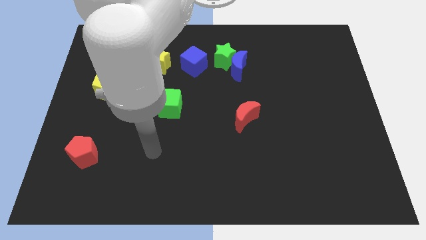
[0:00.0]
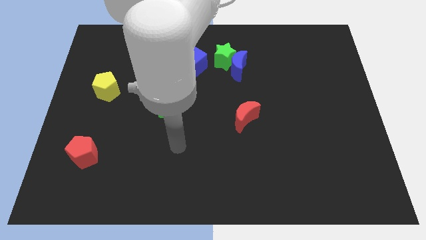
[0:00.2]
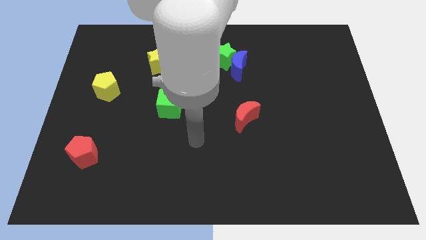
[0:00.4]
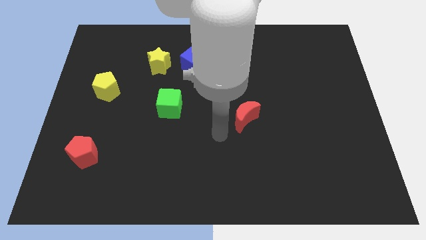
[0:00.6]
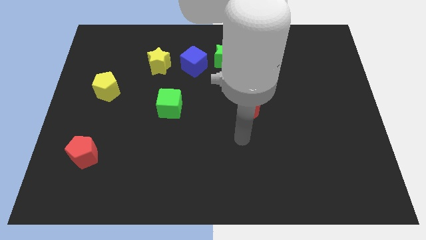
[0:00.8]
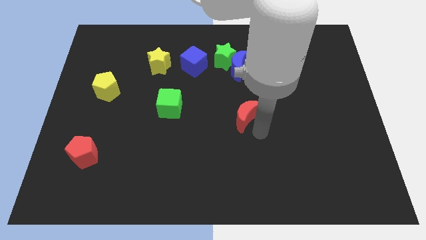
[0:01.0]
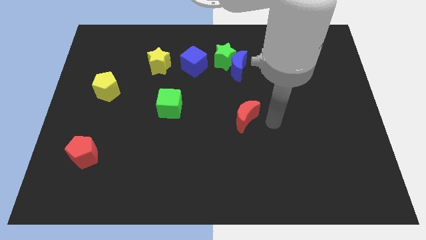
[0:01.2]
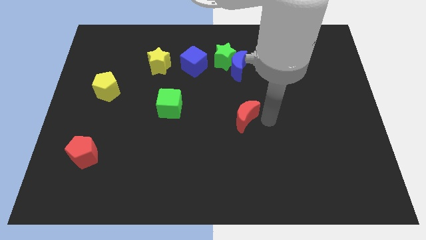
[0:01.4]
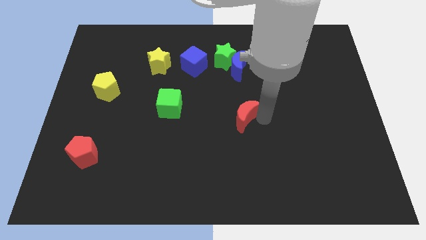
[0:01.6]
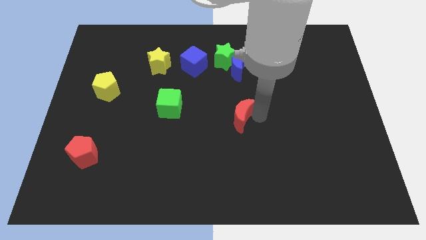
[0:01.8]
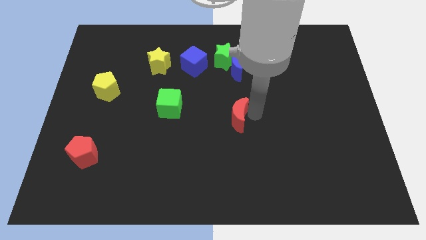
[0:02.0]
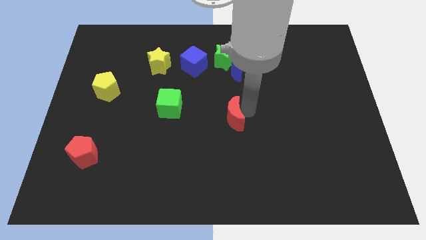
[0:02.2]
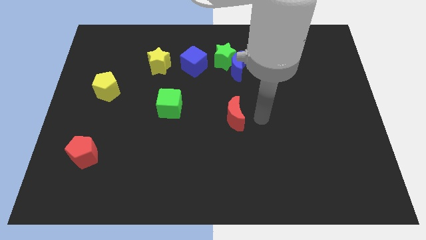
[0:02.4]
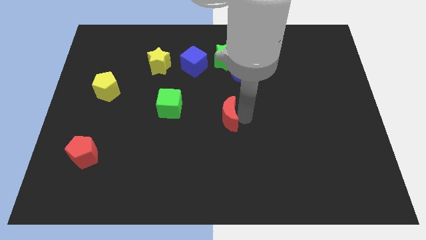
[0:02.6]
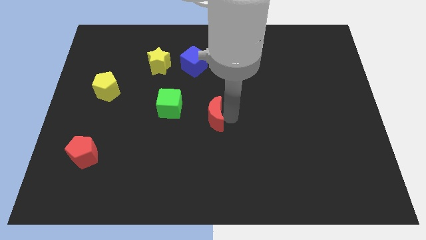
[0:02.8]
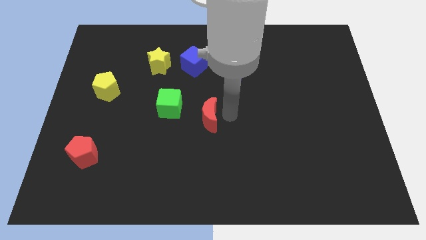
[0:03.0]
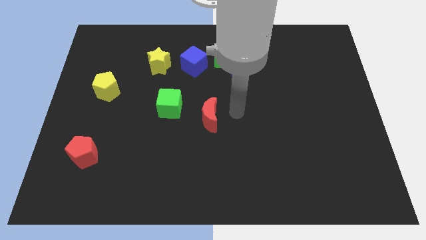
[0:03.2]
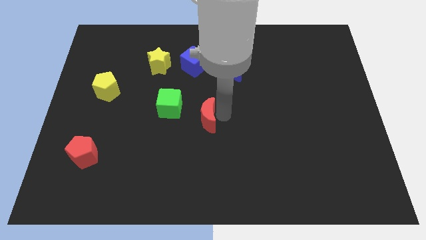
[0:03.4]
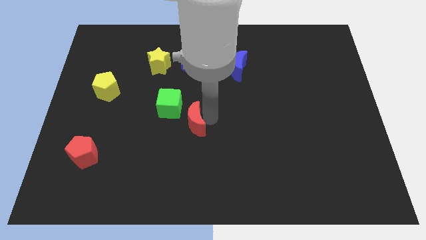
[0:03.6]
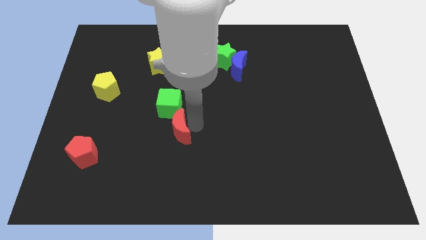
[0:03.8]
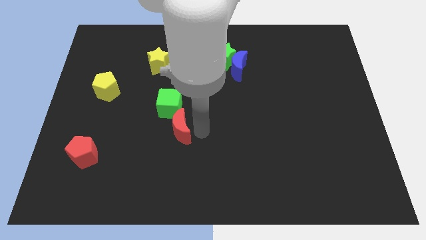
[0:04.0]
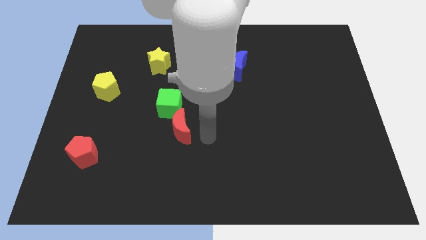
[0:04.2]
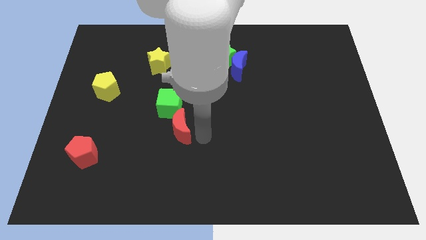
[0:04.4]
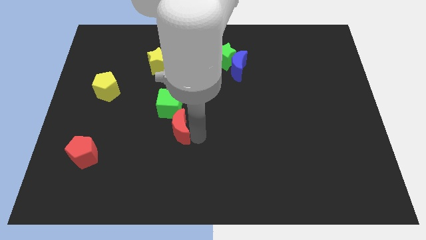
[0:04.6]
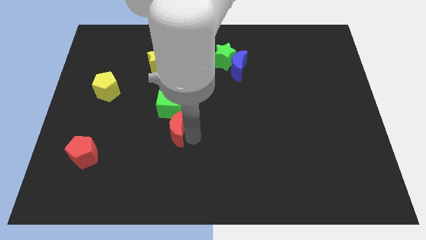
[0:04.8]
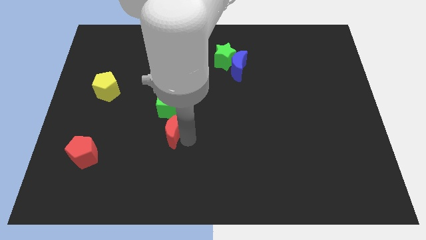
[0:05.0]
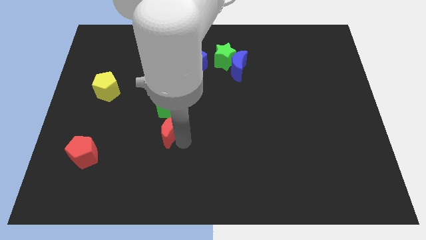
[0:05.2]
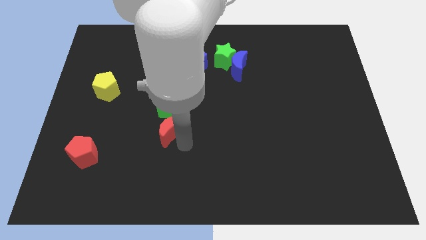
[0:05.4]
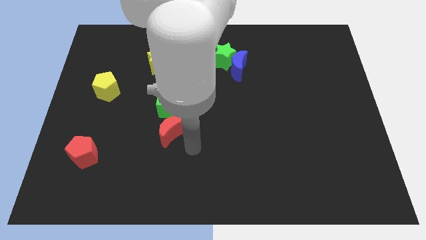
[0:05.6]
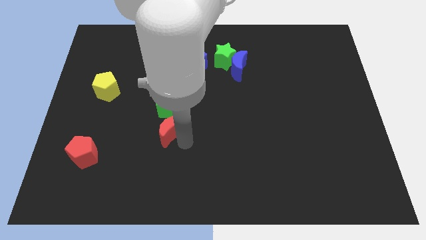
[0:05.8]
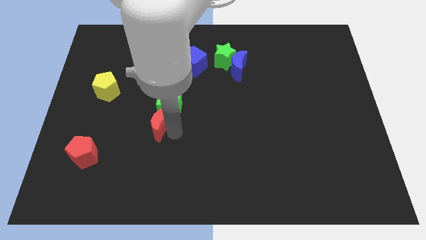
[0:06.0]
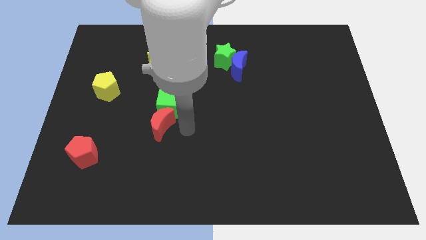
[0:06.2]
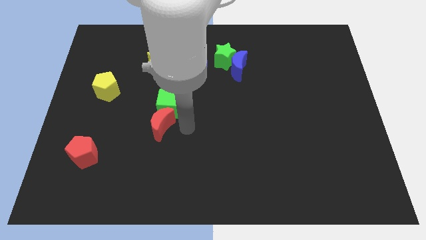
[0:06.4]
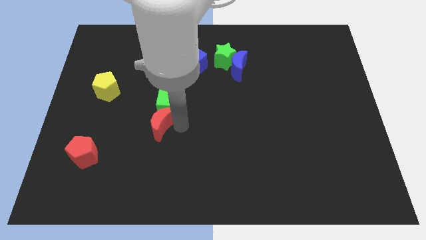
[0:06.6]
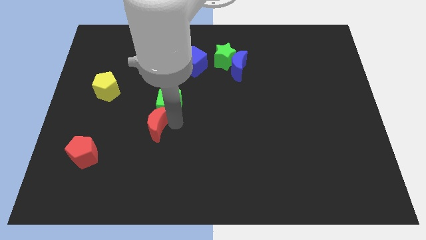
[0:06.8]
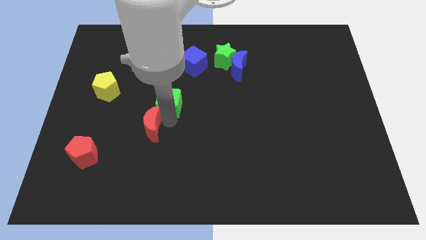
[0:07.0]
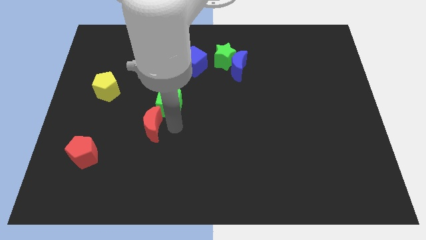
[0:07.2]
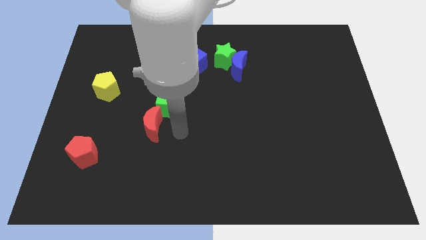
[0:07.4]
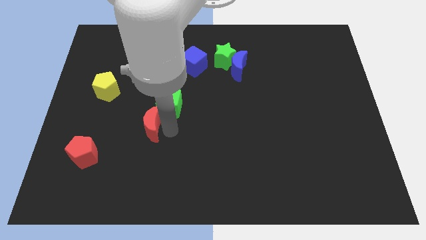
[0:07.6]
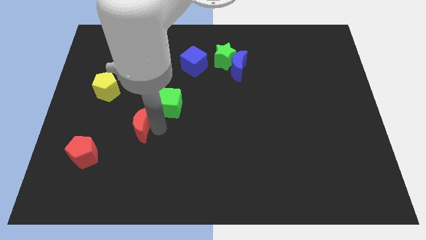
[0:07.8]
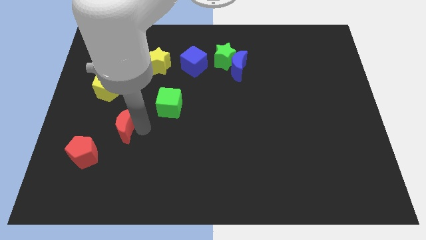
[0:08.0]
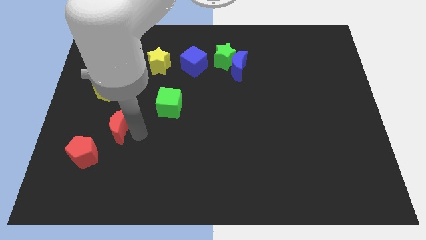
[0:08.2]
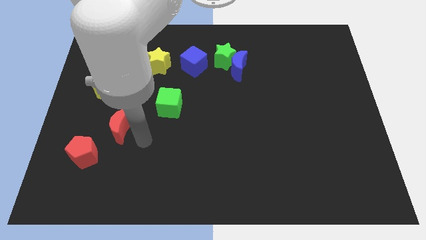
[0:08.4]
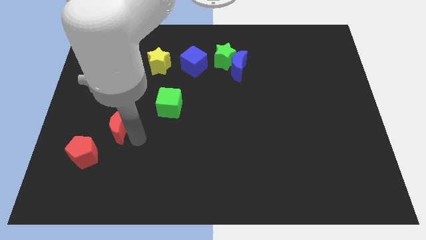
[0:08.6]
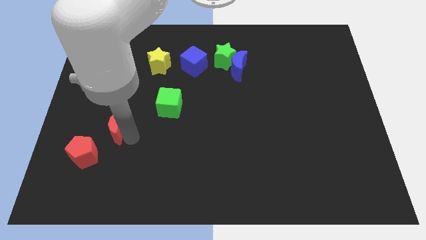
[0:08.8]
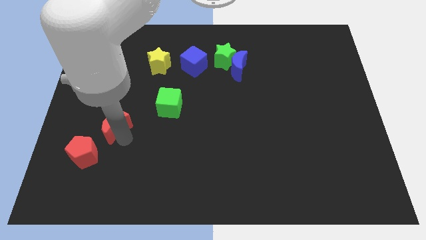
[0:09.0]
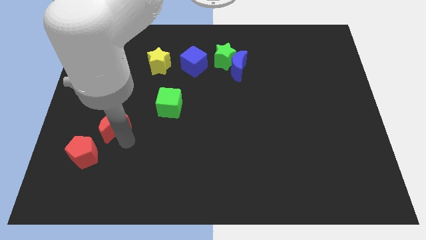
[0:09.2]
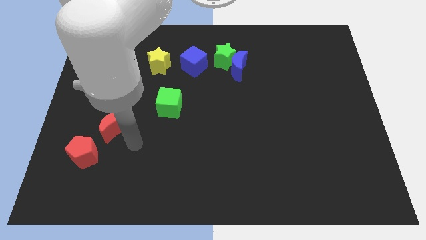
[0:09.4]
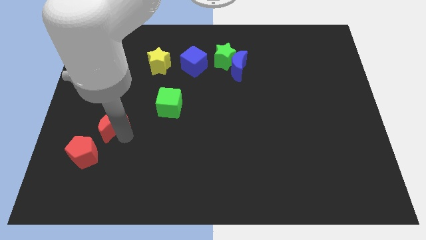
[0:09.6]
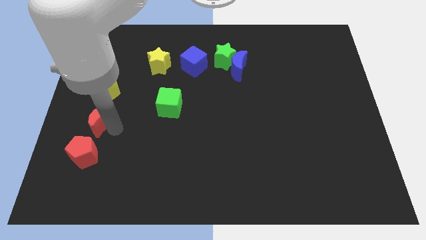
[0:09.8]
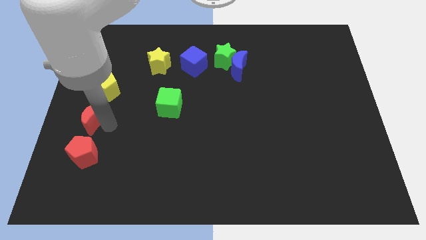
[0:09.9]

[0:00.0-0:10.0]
move the red moon to the left side of the board
